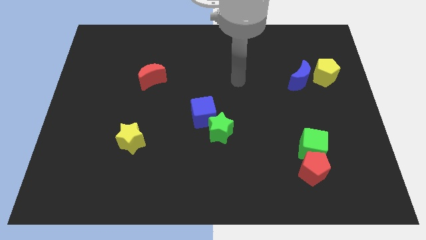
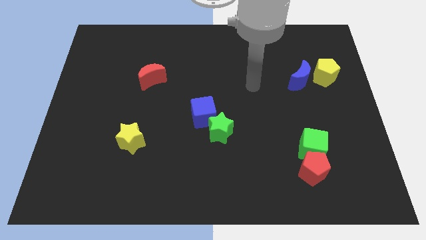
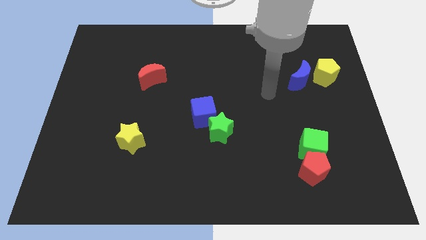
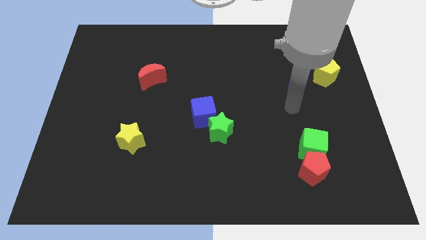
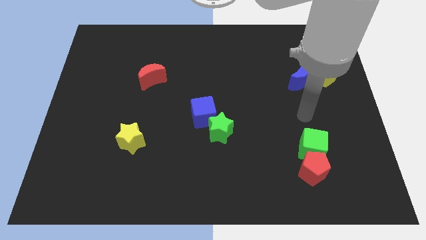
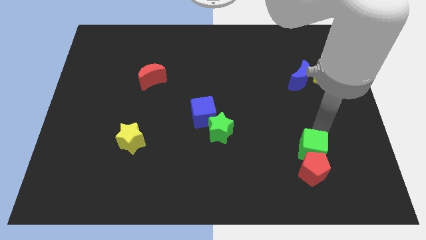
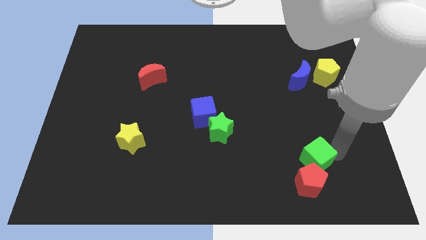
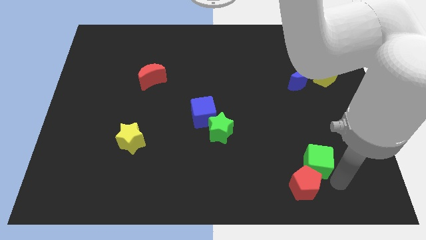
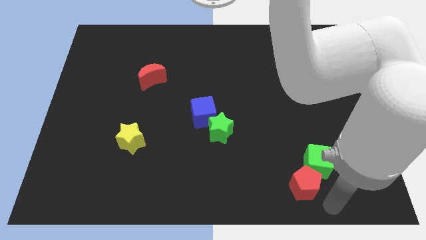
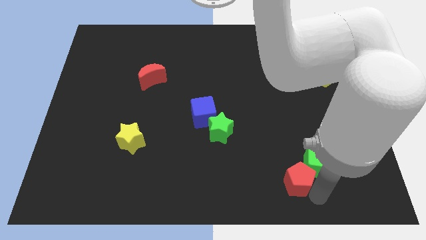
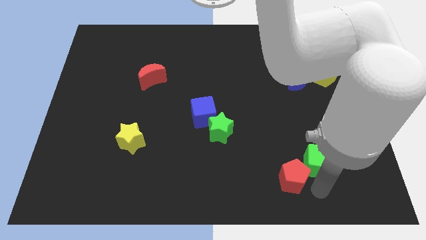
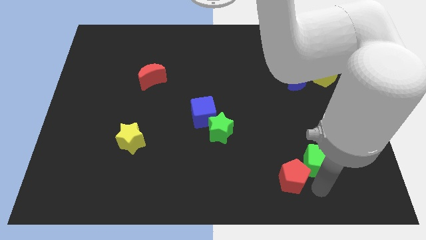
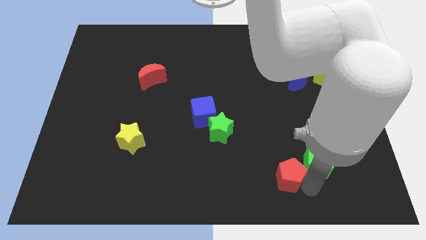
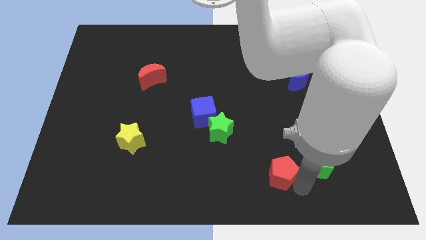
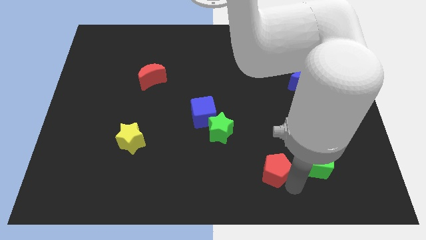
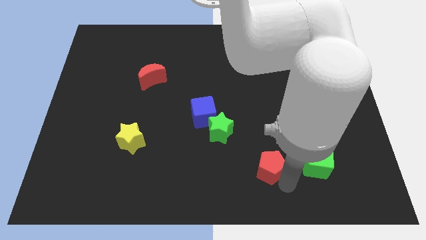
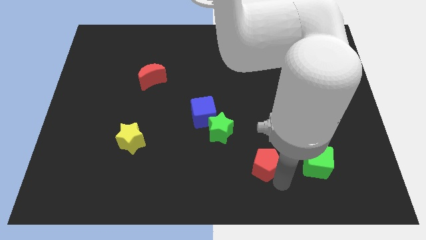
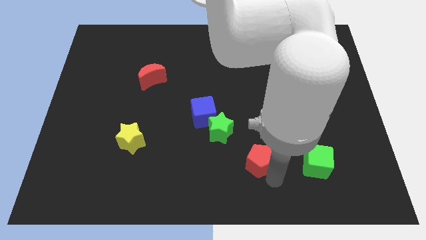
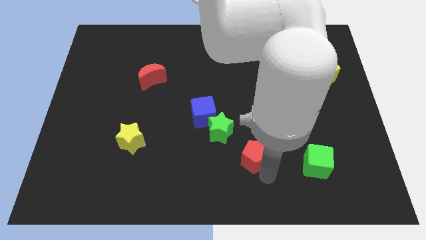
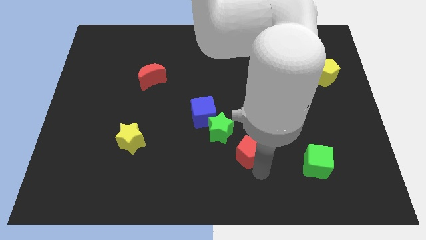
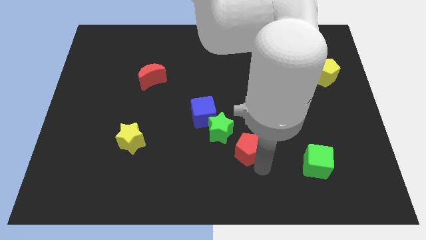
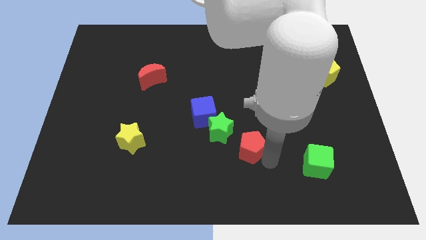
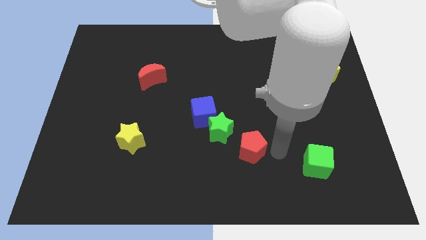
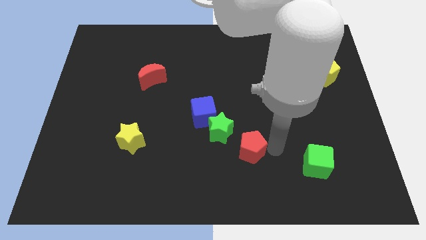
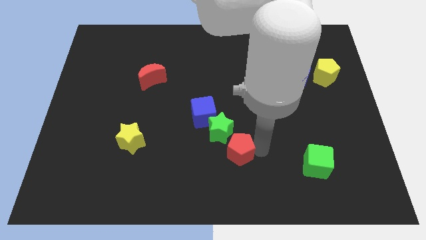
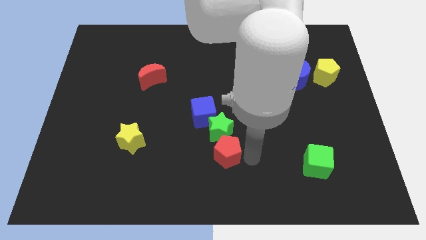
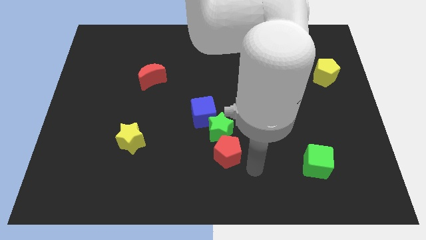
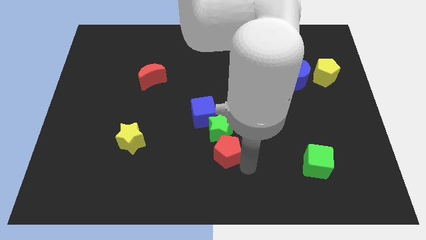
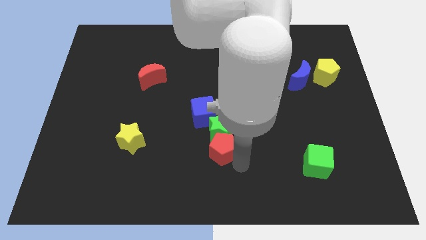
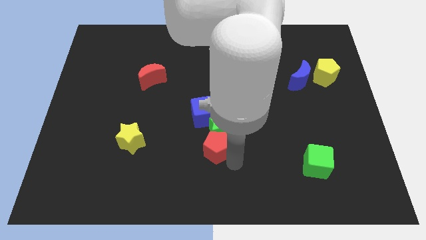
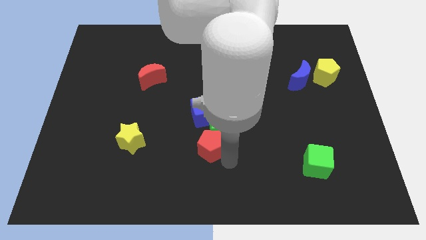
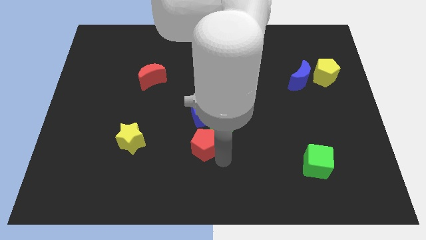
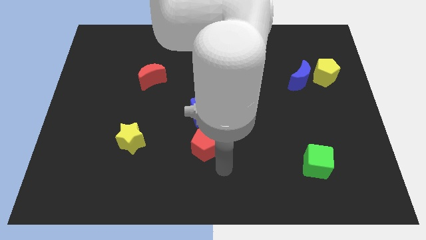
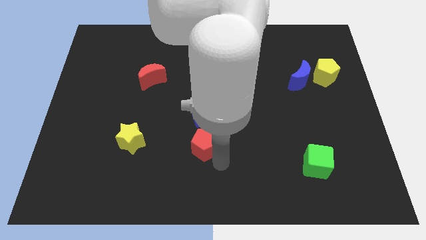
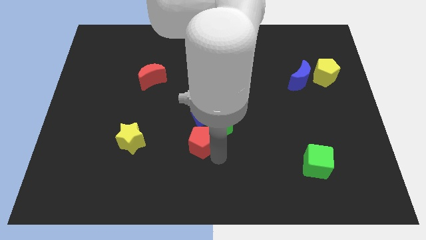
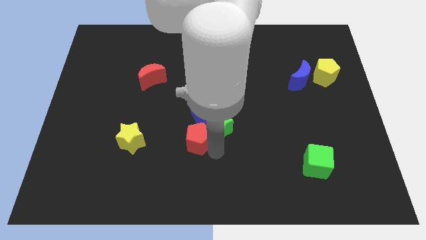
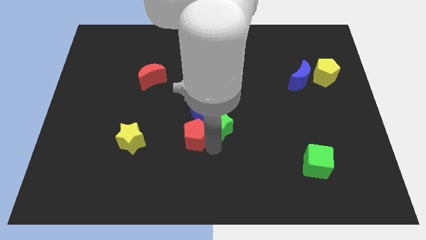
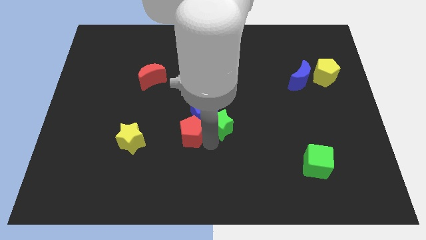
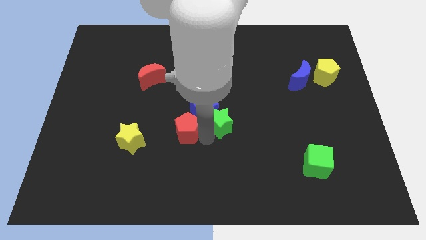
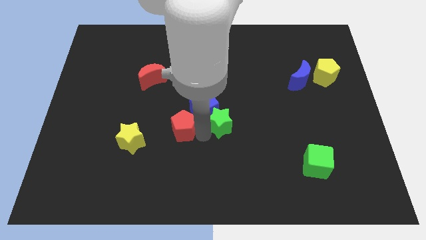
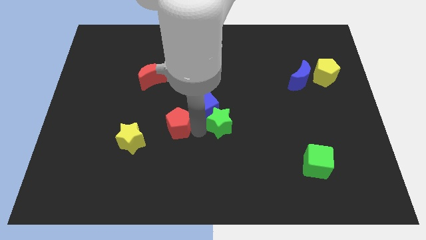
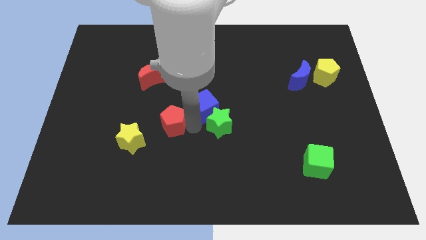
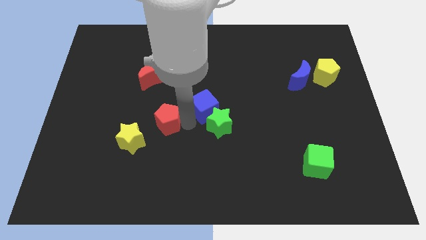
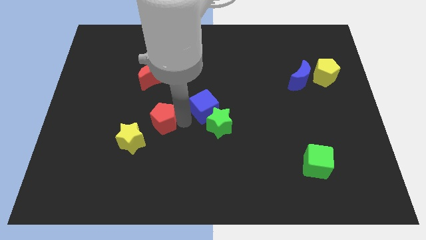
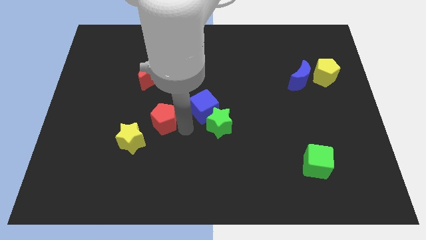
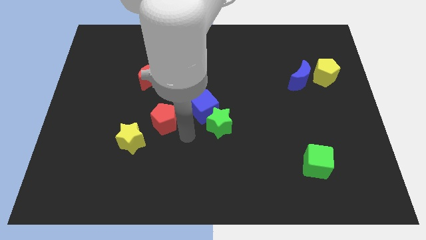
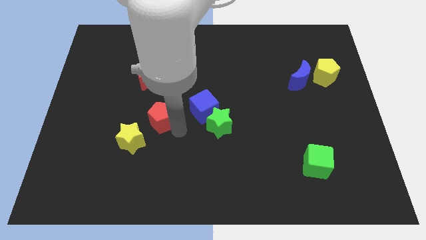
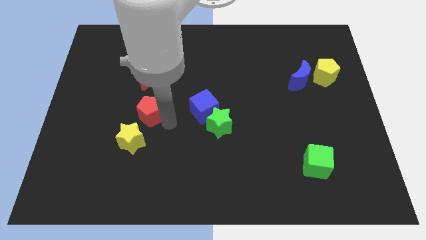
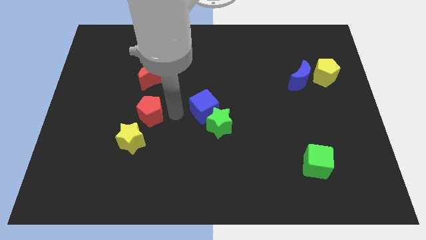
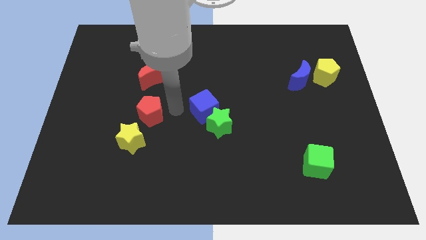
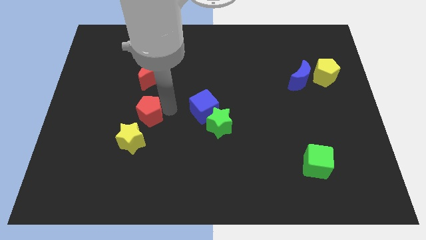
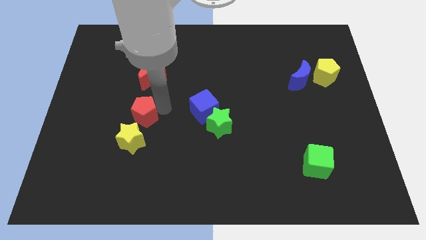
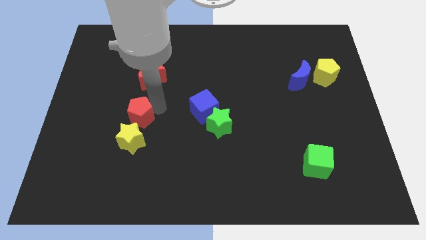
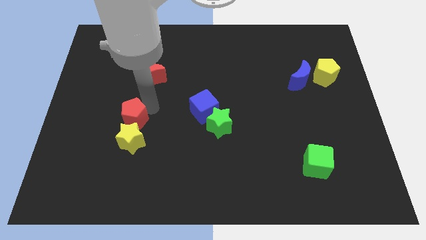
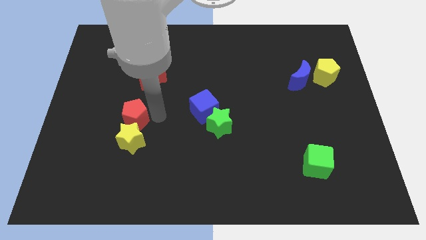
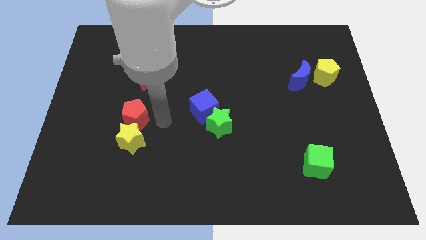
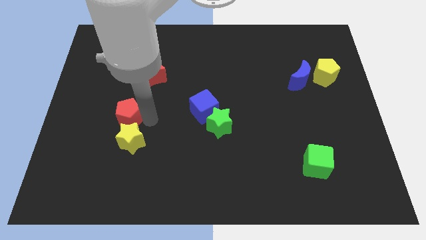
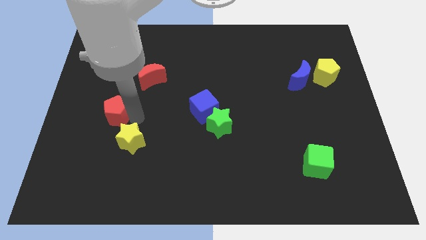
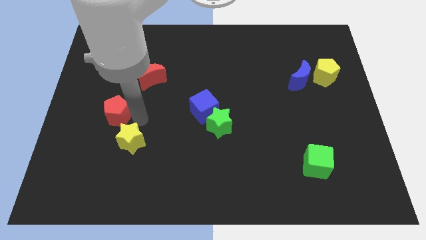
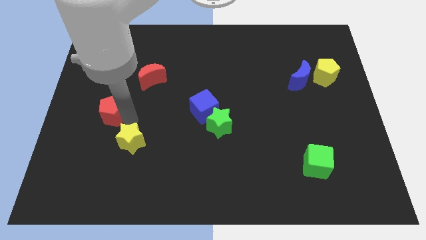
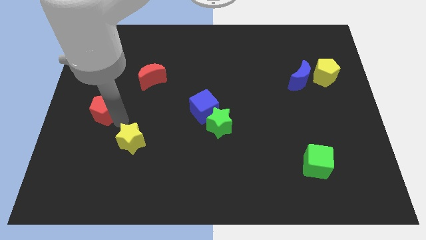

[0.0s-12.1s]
put the red pentagon to the left side of the board
